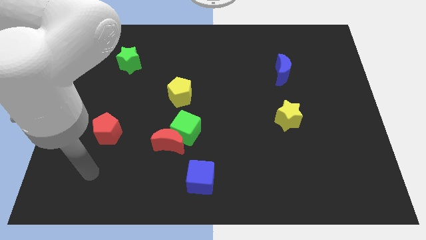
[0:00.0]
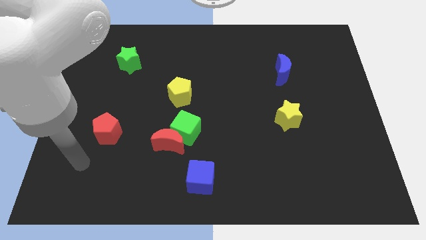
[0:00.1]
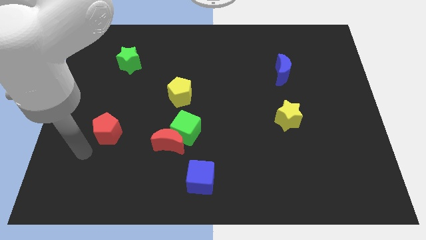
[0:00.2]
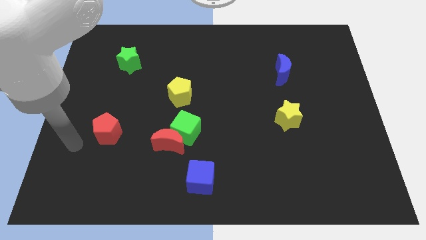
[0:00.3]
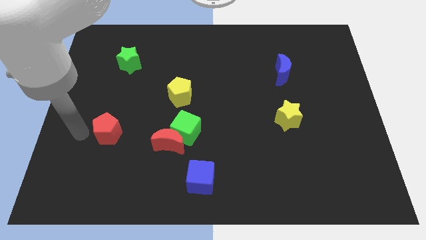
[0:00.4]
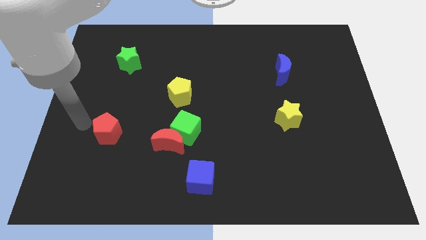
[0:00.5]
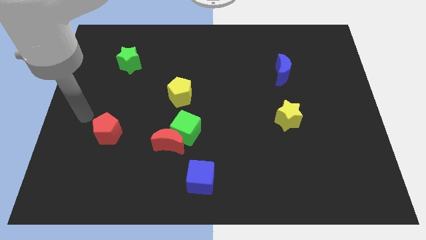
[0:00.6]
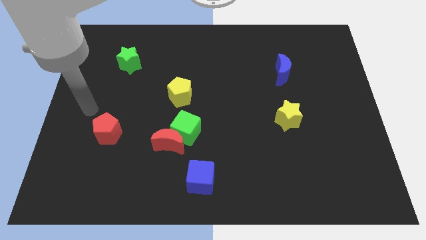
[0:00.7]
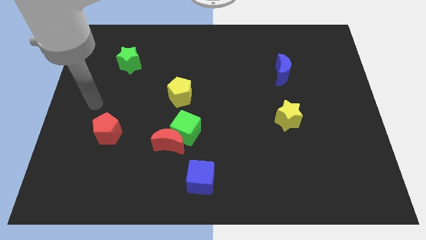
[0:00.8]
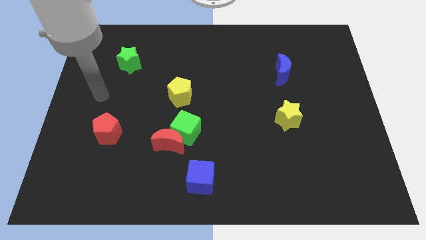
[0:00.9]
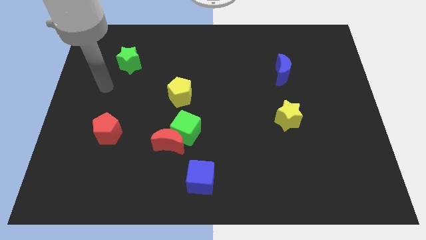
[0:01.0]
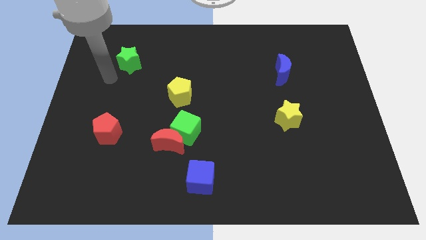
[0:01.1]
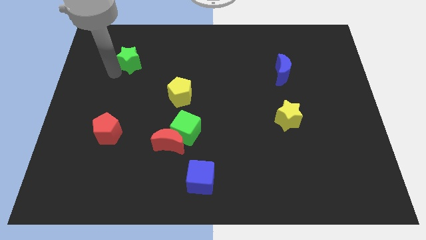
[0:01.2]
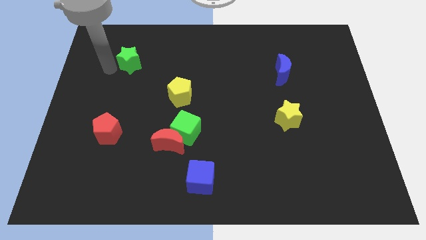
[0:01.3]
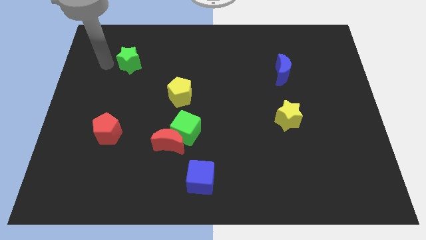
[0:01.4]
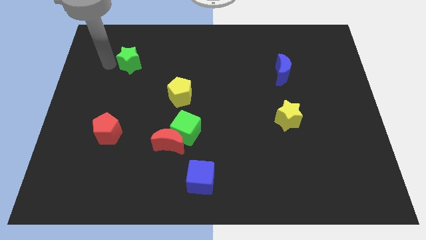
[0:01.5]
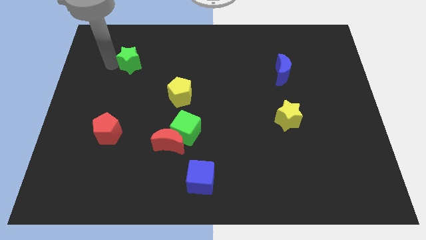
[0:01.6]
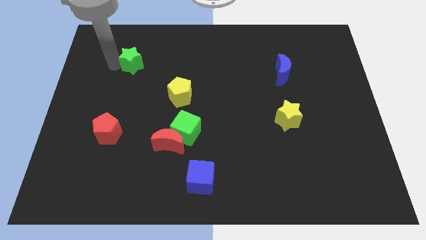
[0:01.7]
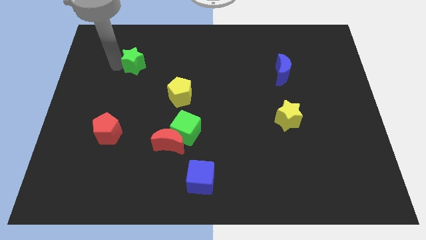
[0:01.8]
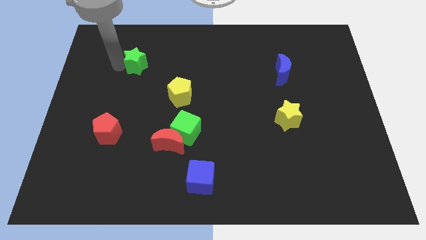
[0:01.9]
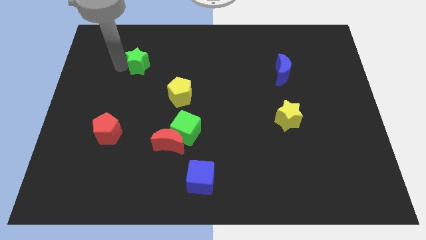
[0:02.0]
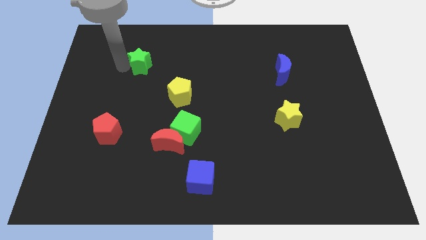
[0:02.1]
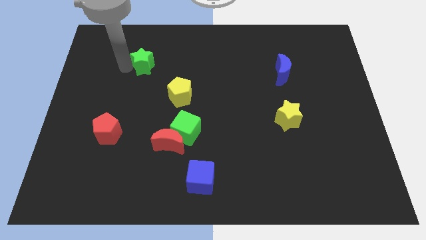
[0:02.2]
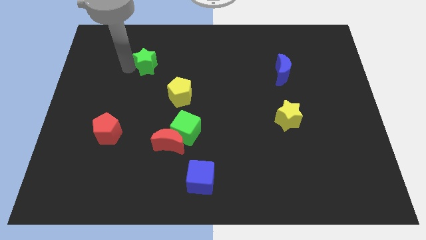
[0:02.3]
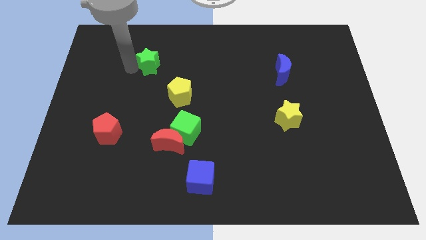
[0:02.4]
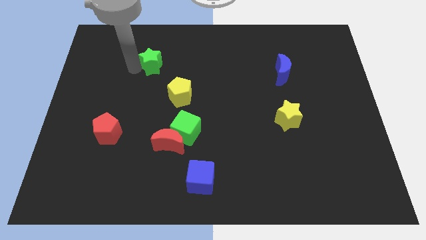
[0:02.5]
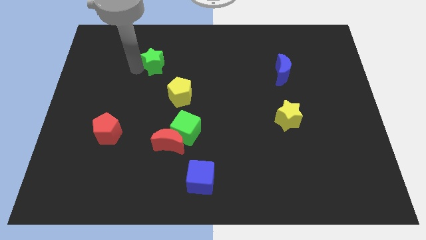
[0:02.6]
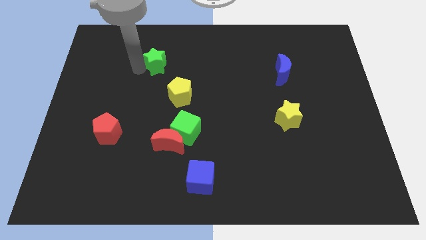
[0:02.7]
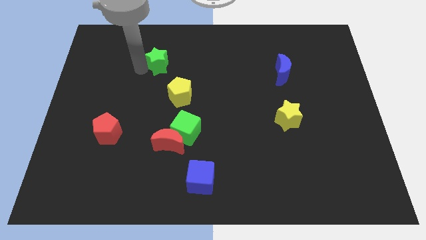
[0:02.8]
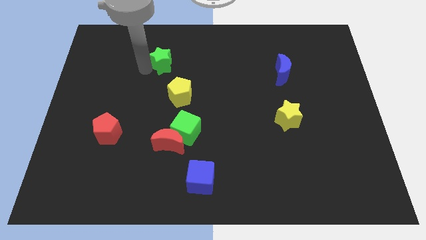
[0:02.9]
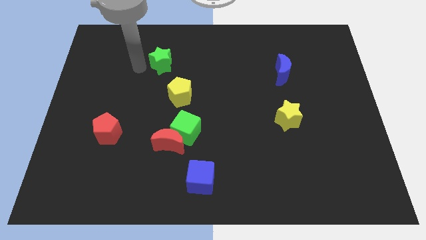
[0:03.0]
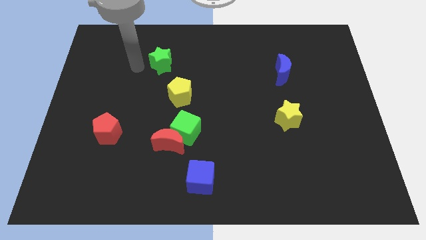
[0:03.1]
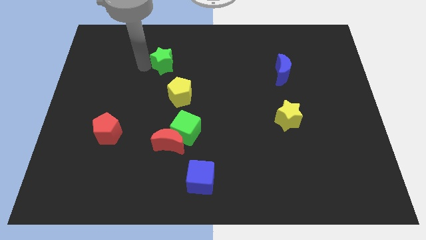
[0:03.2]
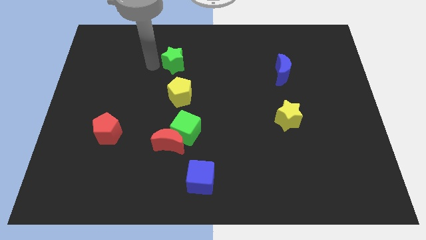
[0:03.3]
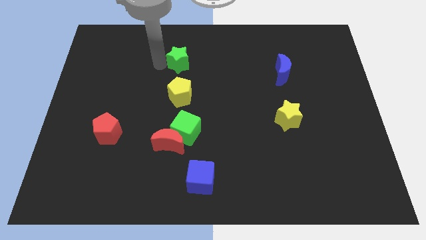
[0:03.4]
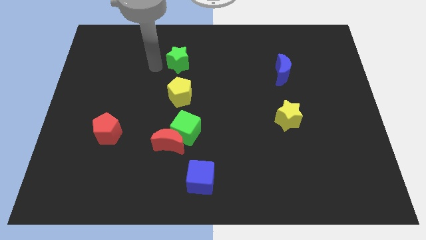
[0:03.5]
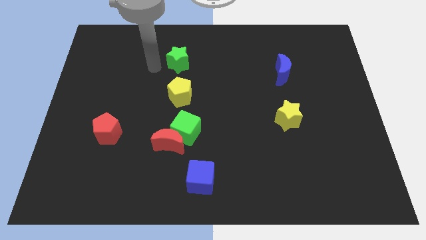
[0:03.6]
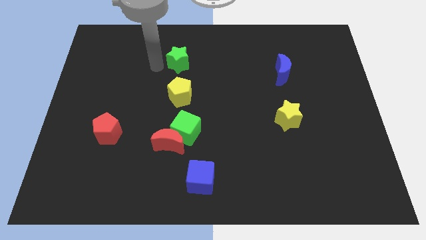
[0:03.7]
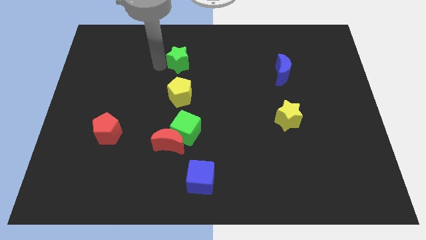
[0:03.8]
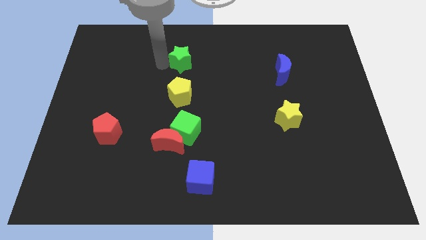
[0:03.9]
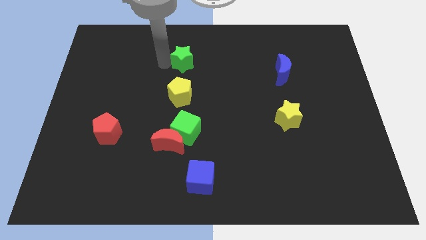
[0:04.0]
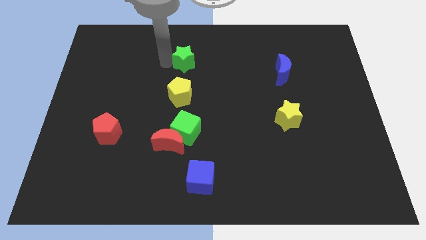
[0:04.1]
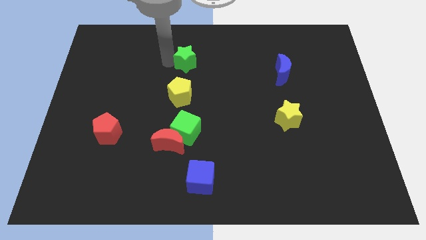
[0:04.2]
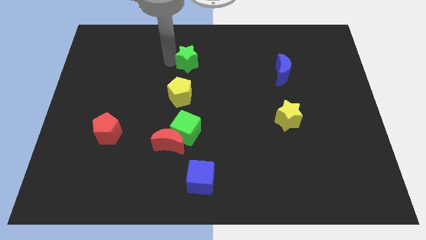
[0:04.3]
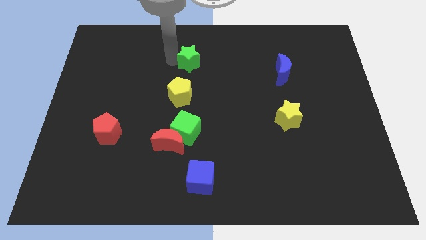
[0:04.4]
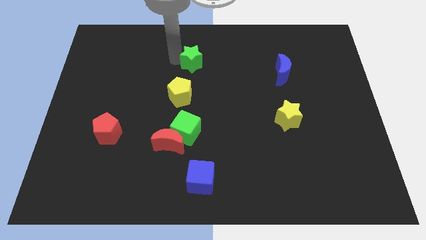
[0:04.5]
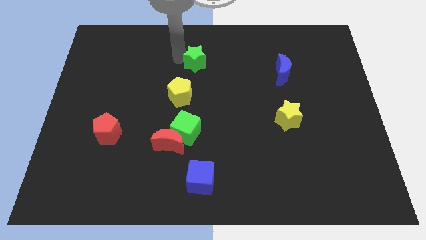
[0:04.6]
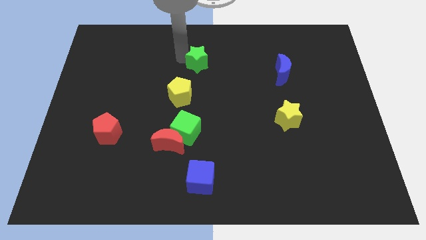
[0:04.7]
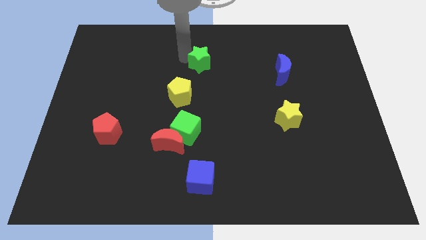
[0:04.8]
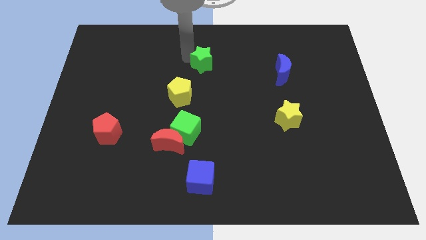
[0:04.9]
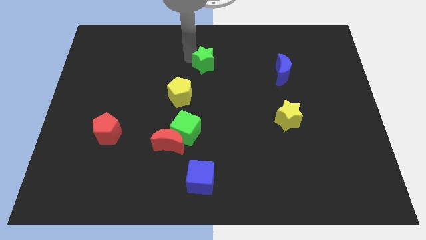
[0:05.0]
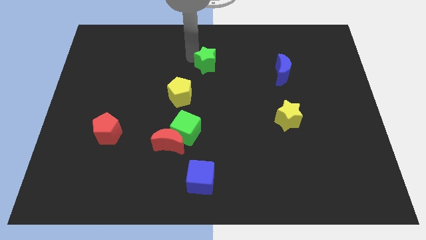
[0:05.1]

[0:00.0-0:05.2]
move the green star right

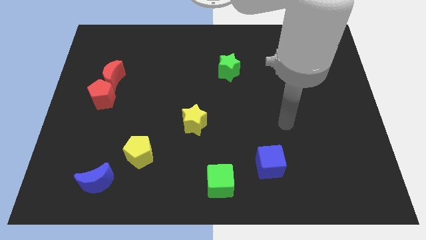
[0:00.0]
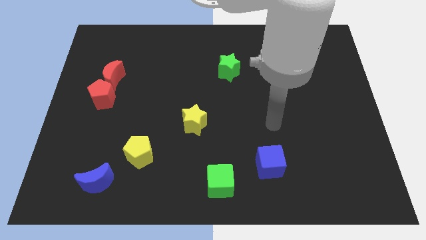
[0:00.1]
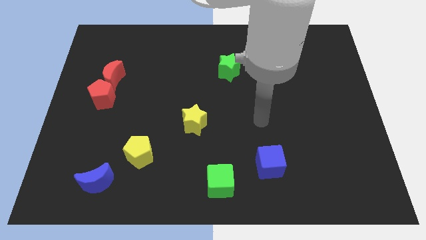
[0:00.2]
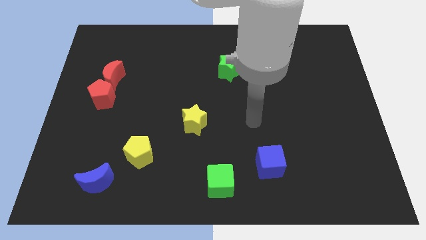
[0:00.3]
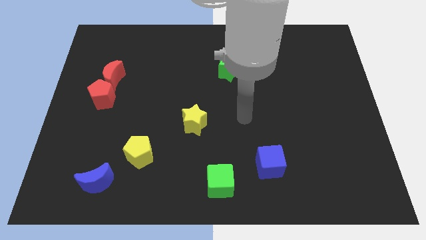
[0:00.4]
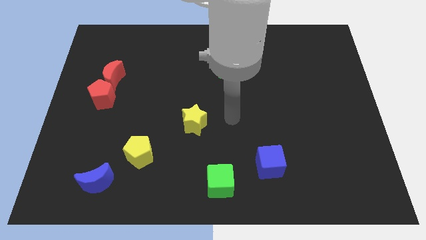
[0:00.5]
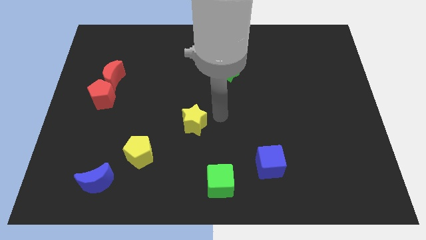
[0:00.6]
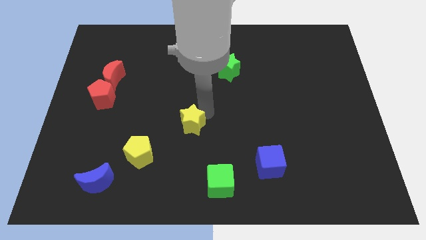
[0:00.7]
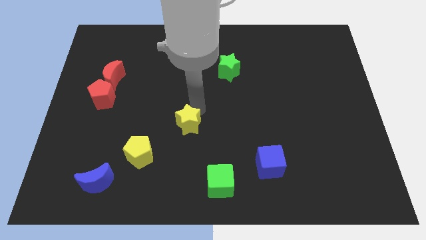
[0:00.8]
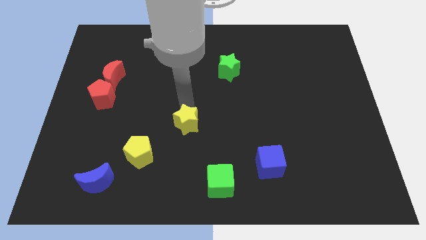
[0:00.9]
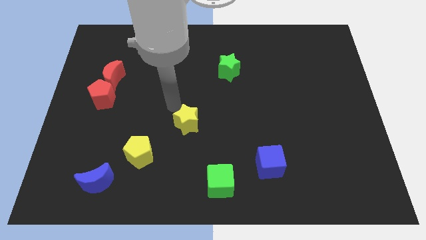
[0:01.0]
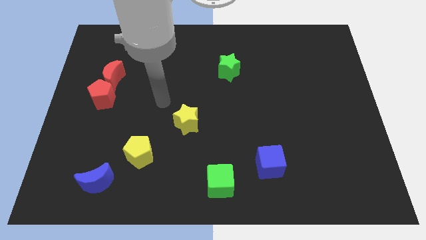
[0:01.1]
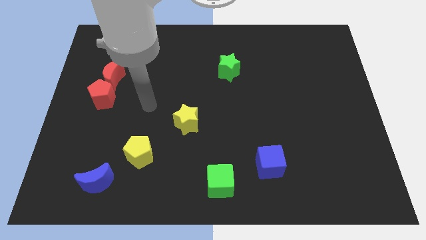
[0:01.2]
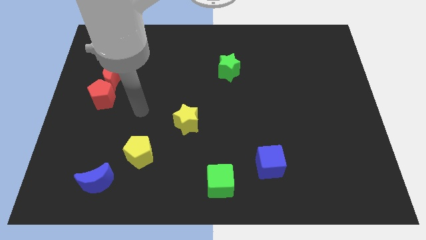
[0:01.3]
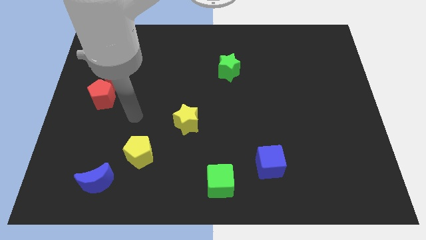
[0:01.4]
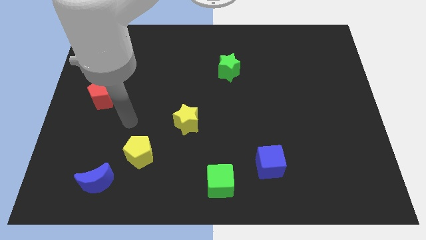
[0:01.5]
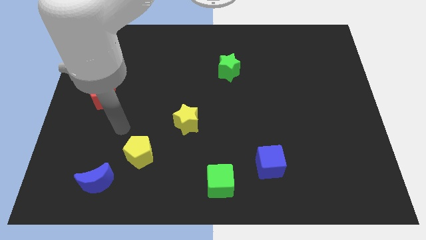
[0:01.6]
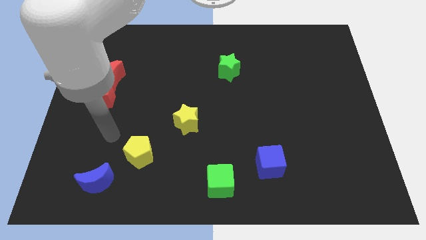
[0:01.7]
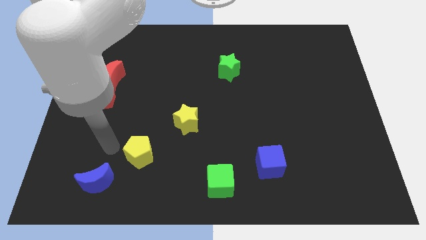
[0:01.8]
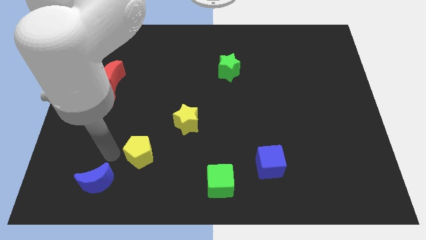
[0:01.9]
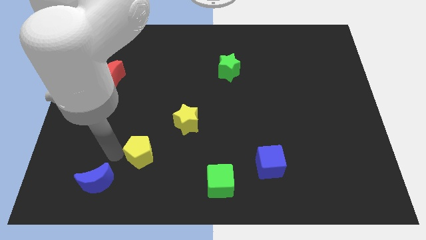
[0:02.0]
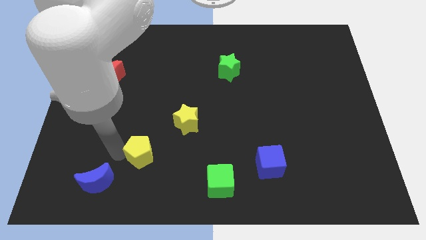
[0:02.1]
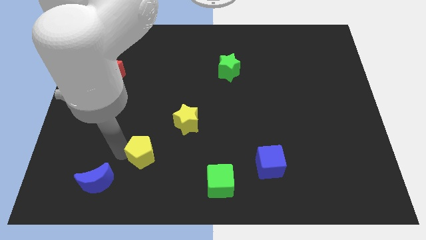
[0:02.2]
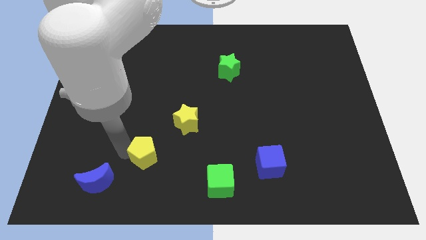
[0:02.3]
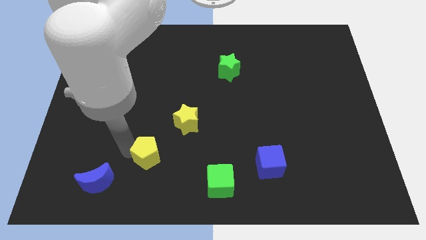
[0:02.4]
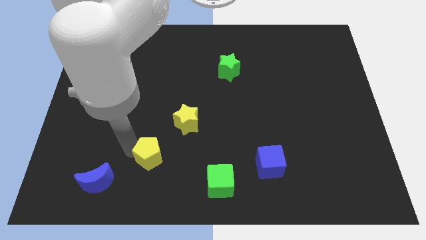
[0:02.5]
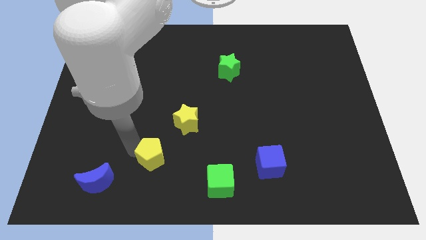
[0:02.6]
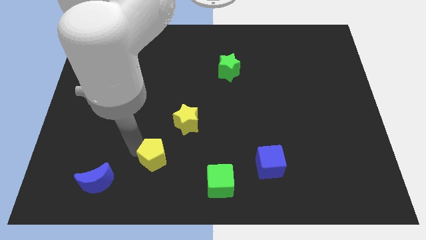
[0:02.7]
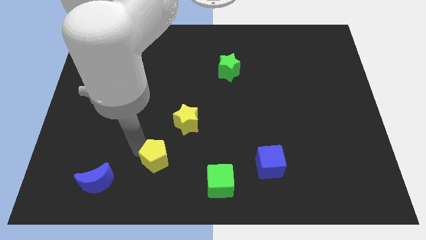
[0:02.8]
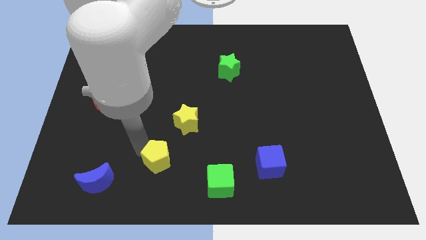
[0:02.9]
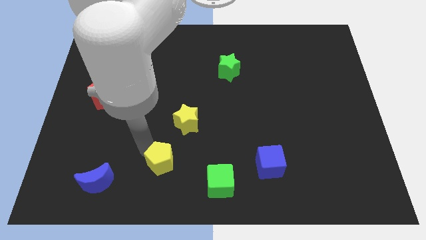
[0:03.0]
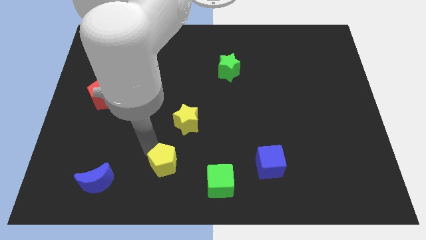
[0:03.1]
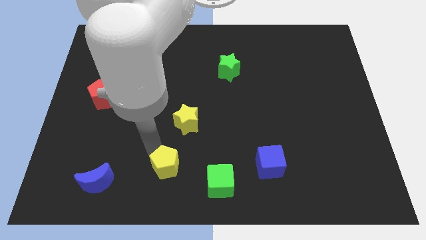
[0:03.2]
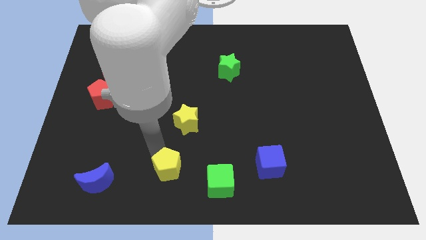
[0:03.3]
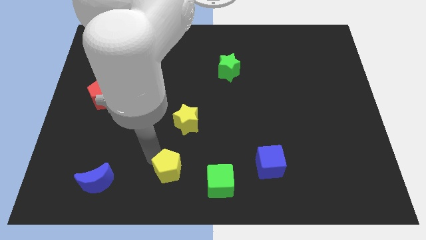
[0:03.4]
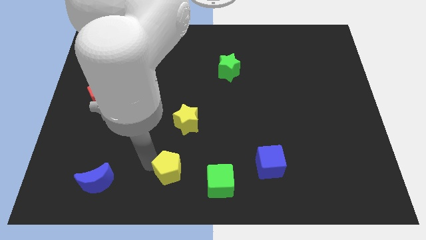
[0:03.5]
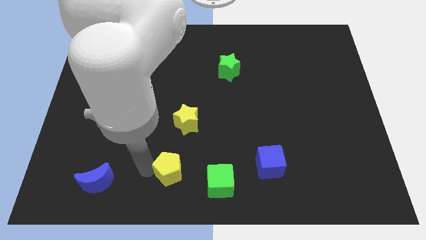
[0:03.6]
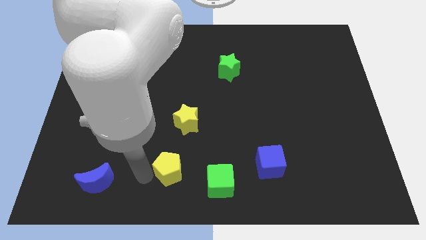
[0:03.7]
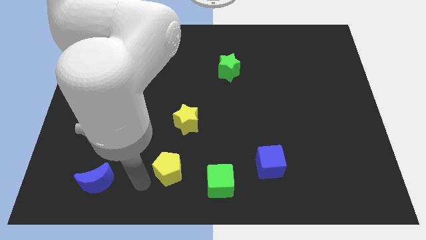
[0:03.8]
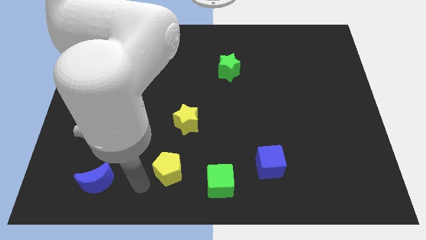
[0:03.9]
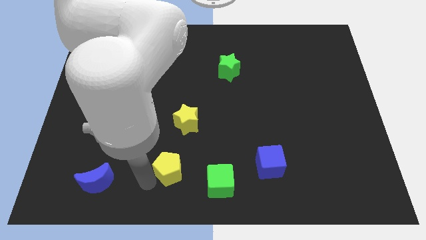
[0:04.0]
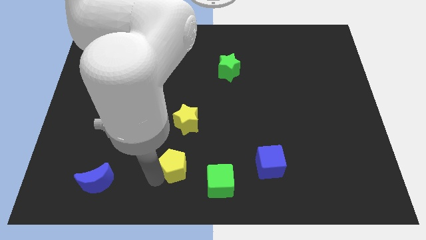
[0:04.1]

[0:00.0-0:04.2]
slightly slide the yellow pentagon to the right
